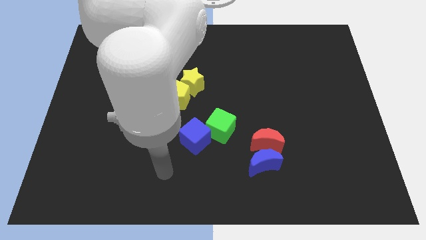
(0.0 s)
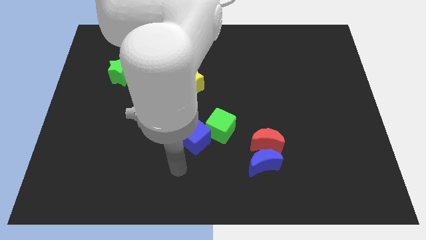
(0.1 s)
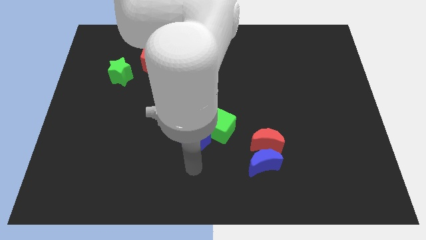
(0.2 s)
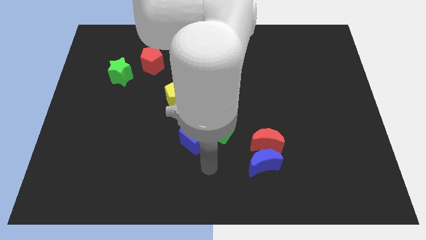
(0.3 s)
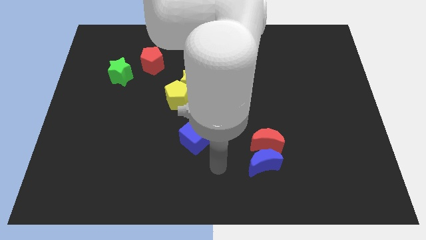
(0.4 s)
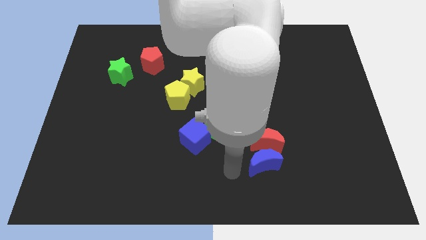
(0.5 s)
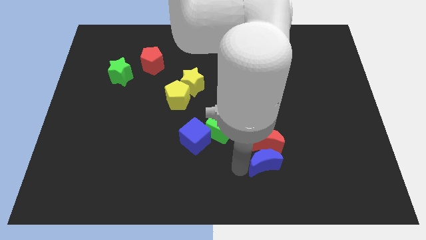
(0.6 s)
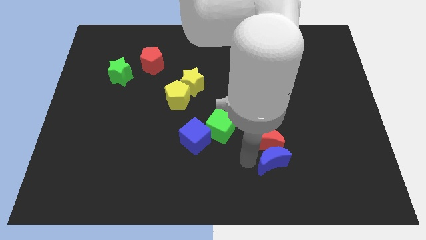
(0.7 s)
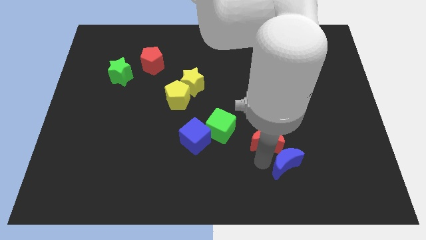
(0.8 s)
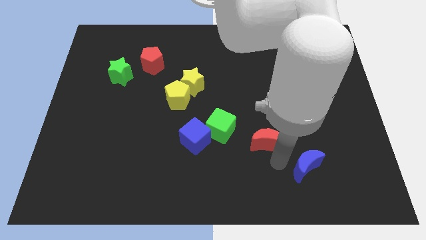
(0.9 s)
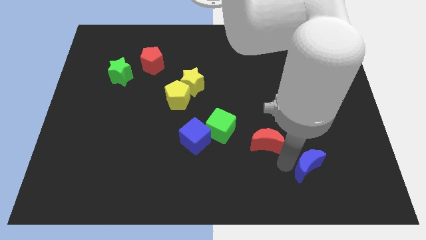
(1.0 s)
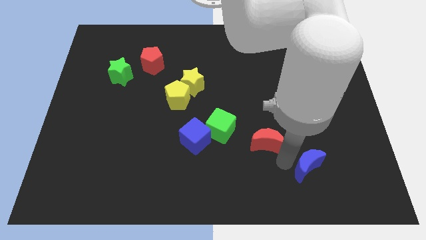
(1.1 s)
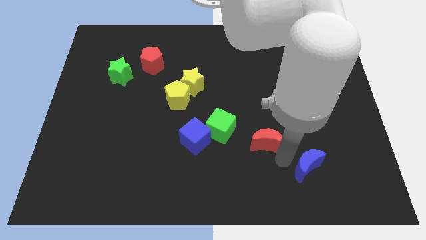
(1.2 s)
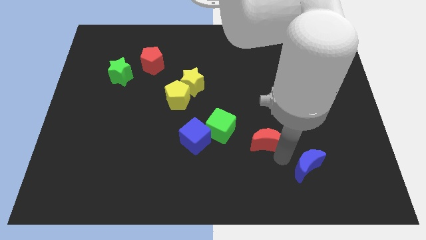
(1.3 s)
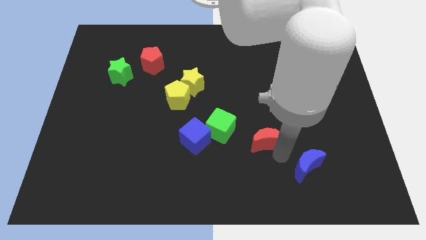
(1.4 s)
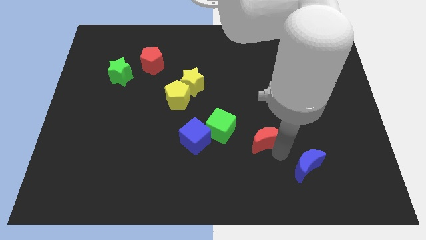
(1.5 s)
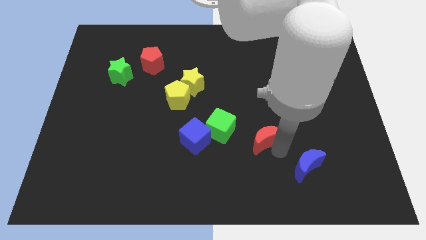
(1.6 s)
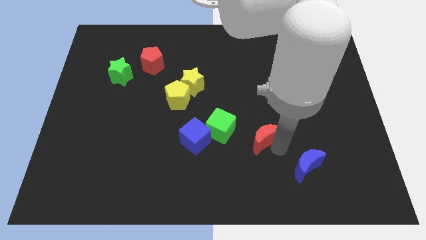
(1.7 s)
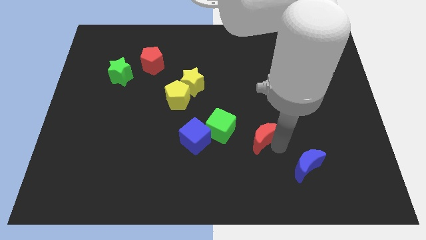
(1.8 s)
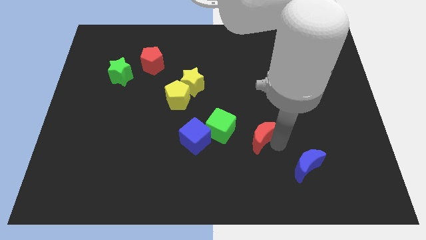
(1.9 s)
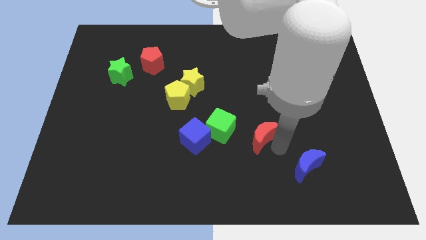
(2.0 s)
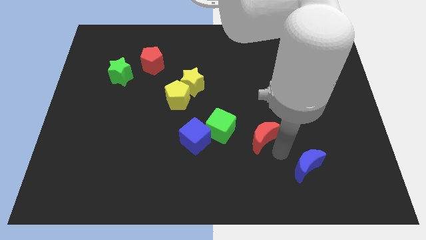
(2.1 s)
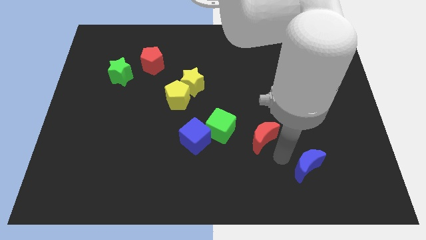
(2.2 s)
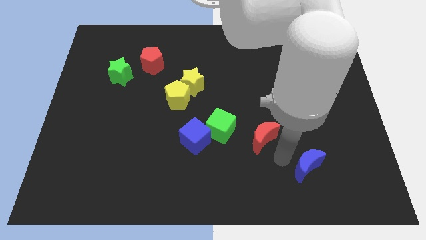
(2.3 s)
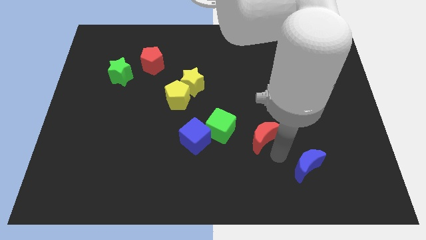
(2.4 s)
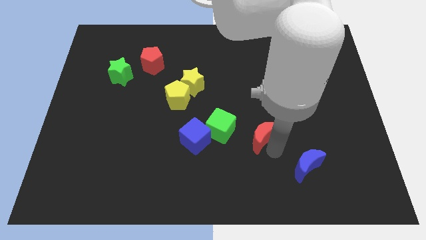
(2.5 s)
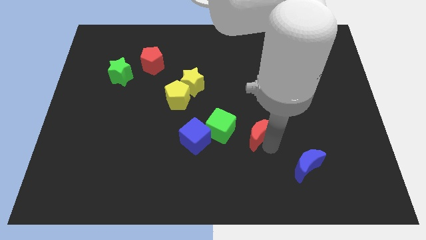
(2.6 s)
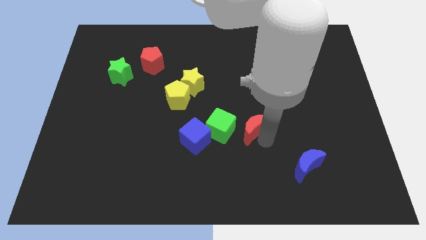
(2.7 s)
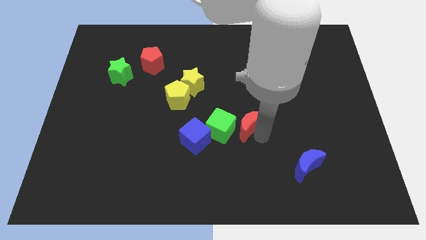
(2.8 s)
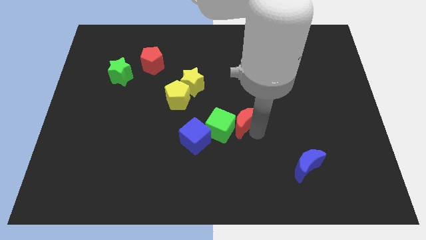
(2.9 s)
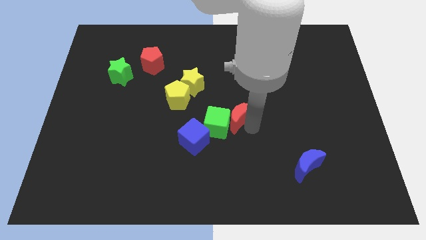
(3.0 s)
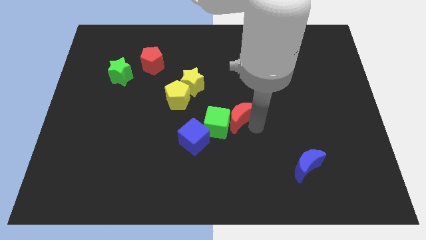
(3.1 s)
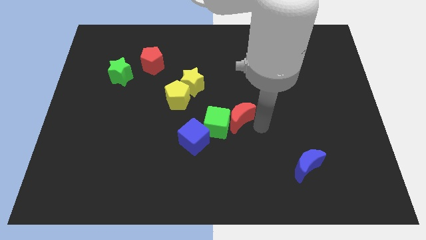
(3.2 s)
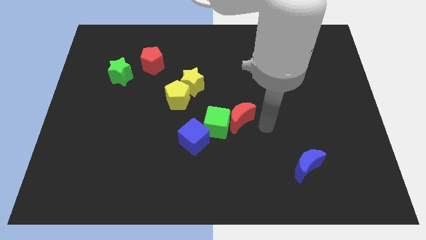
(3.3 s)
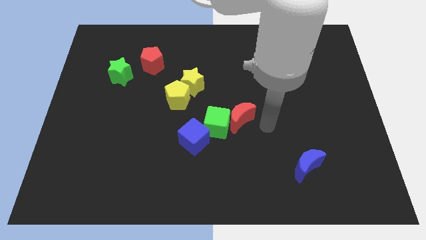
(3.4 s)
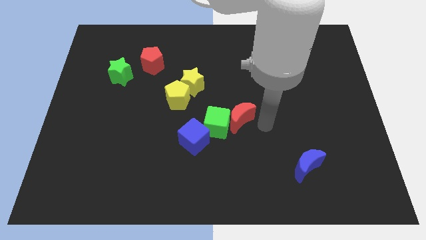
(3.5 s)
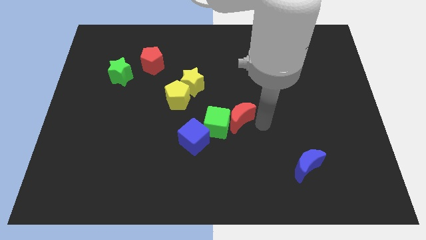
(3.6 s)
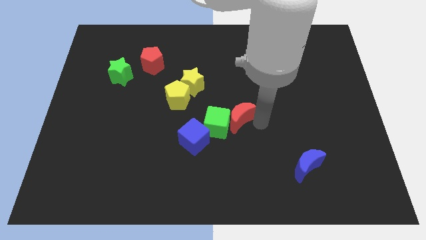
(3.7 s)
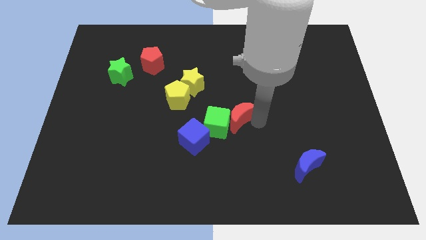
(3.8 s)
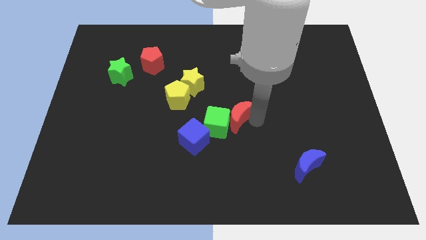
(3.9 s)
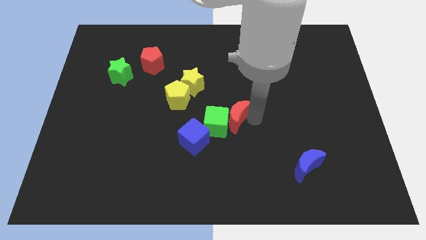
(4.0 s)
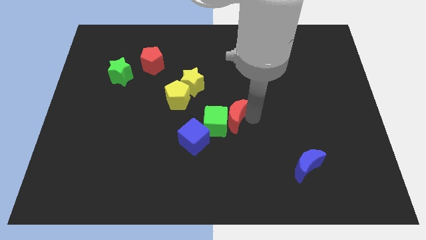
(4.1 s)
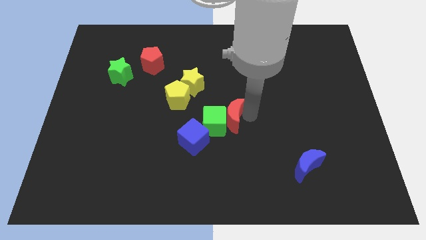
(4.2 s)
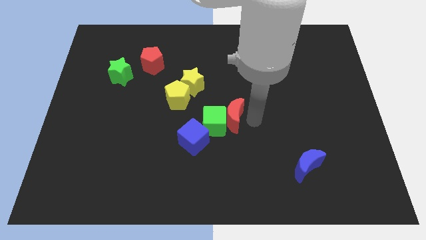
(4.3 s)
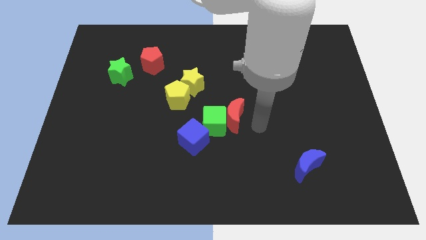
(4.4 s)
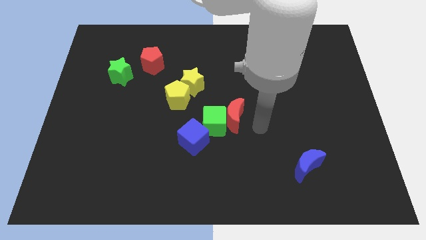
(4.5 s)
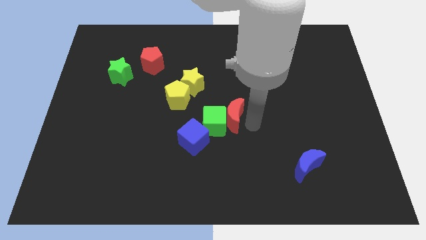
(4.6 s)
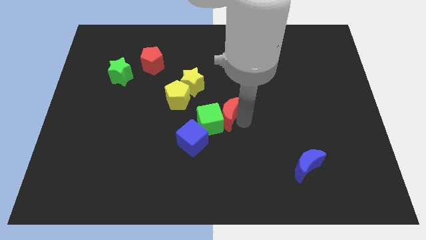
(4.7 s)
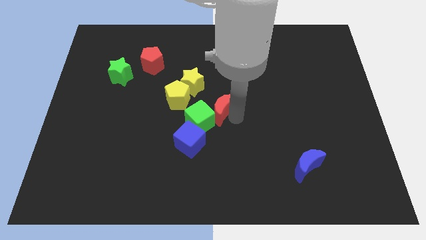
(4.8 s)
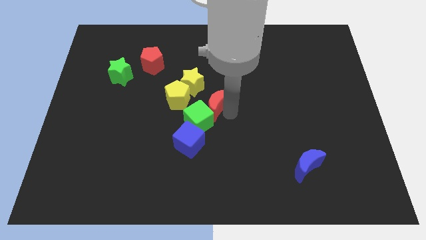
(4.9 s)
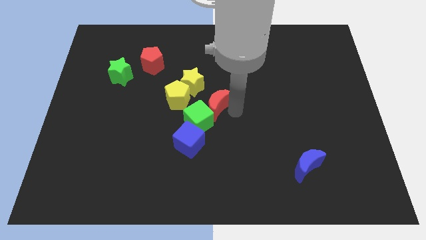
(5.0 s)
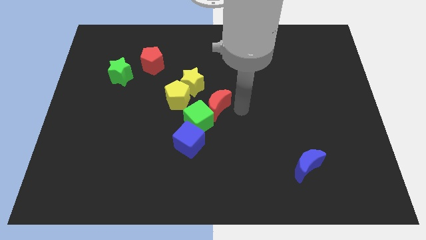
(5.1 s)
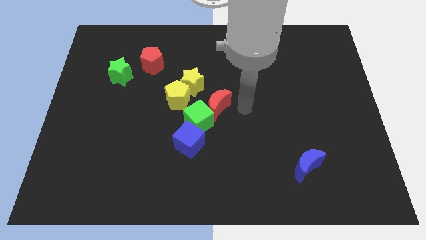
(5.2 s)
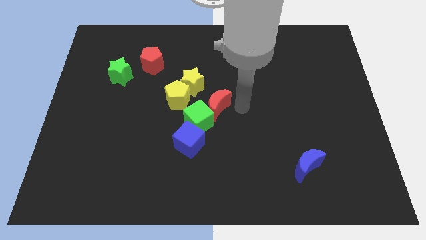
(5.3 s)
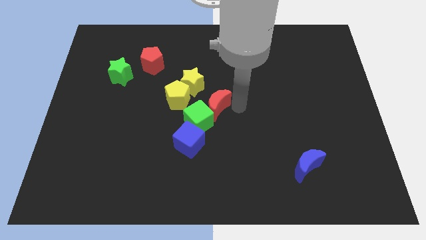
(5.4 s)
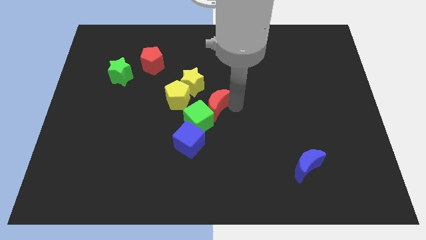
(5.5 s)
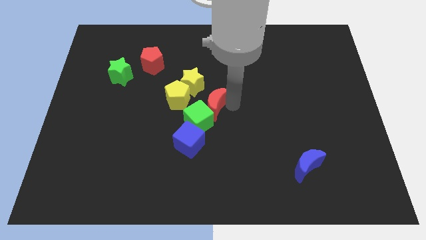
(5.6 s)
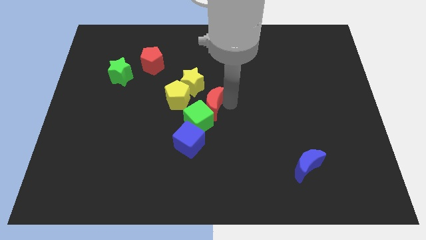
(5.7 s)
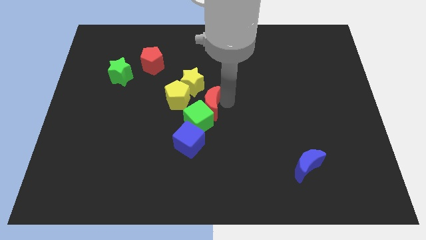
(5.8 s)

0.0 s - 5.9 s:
put the red moon to the top of the blue cube
